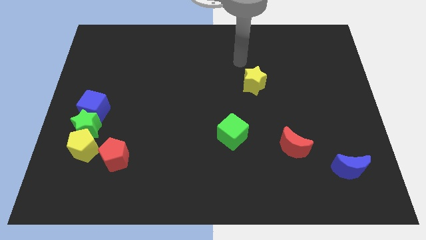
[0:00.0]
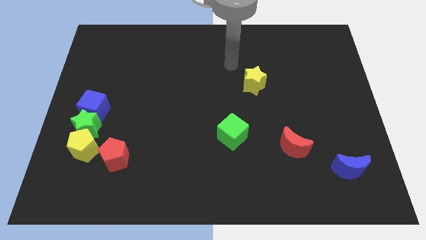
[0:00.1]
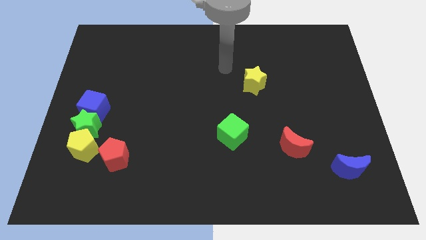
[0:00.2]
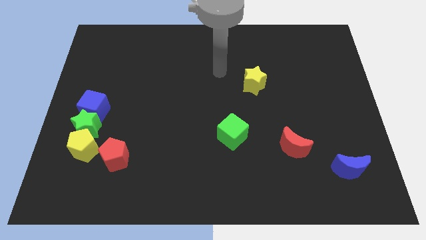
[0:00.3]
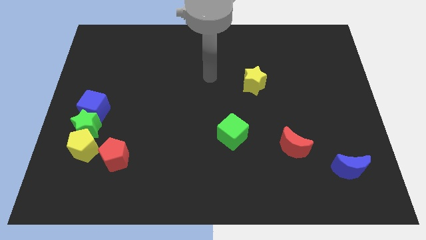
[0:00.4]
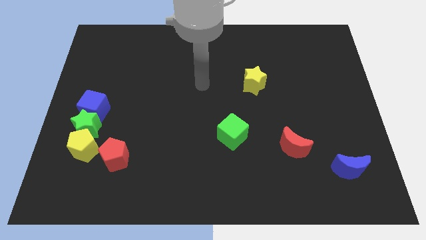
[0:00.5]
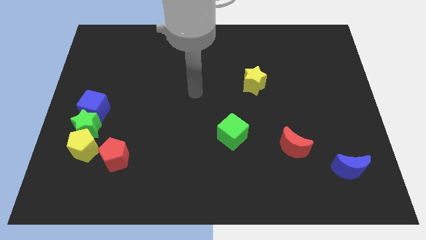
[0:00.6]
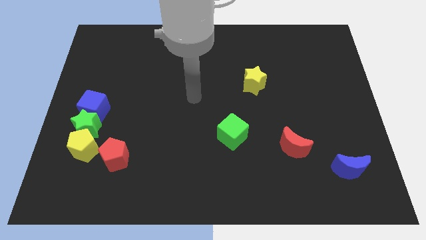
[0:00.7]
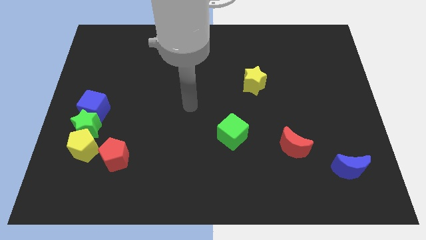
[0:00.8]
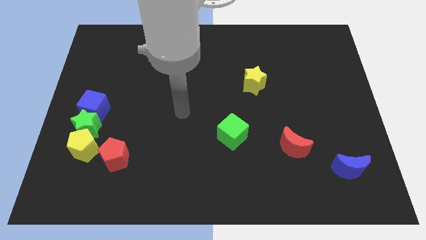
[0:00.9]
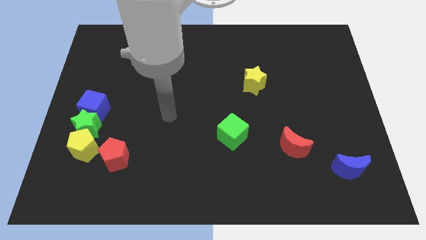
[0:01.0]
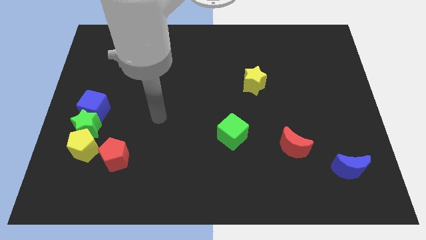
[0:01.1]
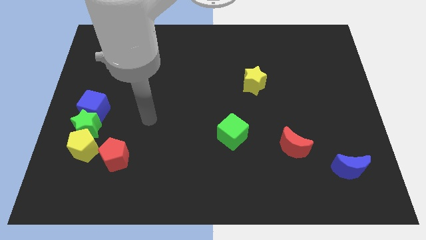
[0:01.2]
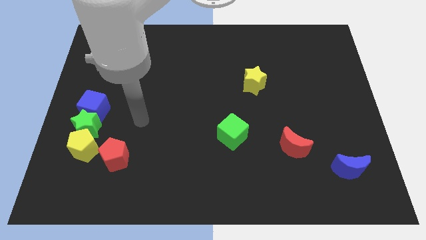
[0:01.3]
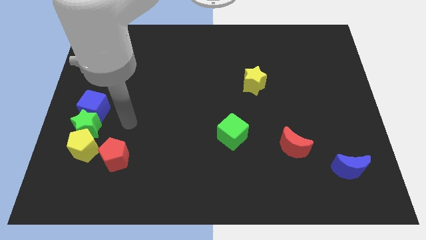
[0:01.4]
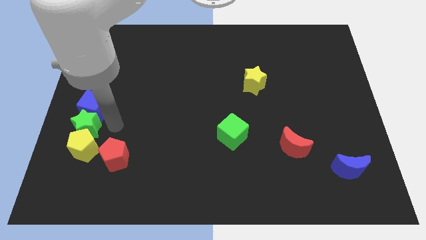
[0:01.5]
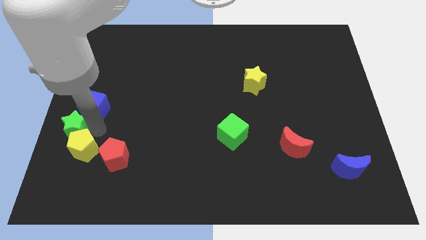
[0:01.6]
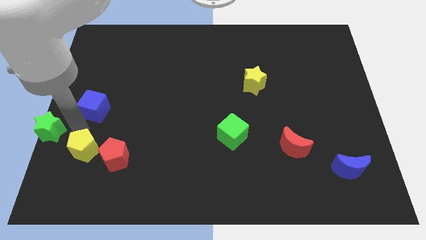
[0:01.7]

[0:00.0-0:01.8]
separate the blue cube from the green star

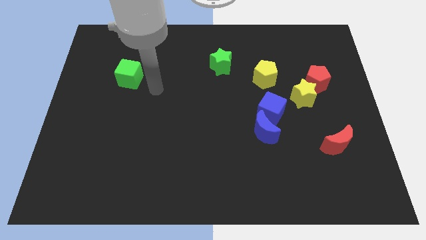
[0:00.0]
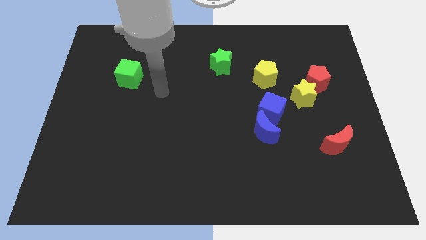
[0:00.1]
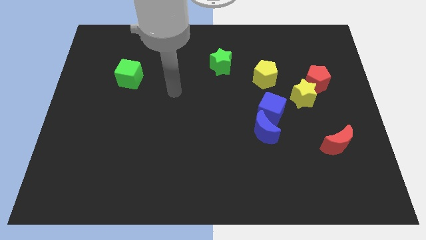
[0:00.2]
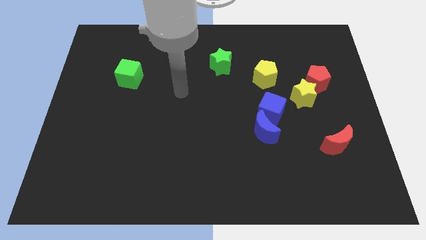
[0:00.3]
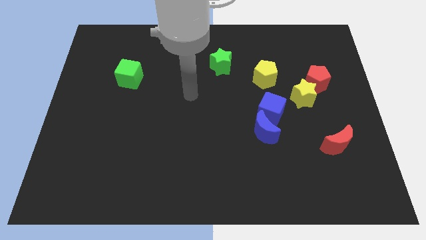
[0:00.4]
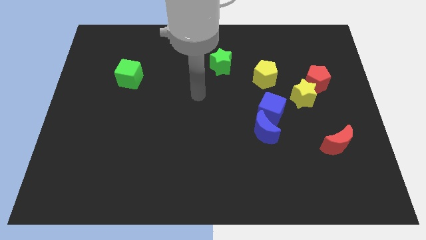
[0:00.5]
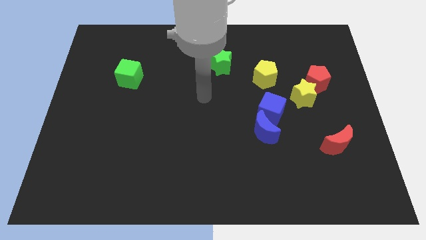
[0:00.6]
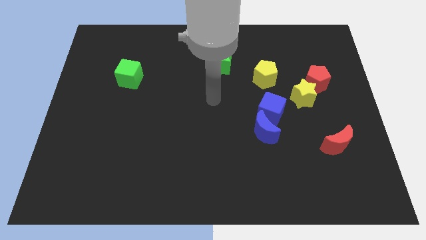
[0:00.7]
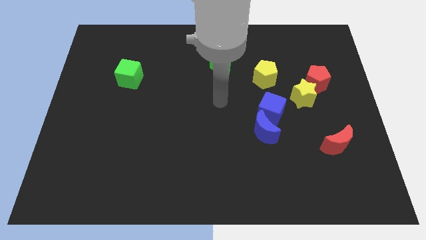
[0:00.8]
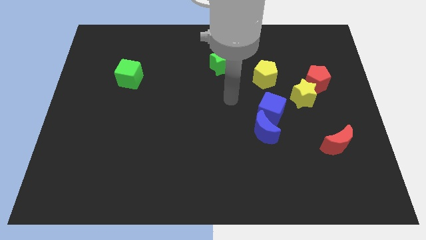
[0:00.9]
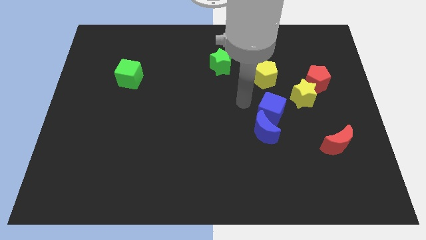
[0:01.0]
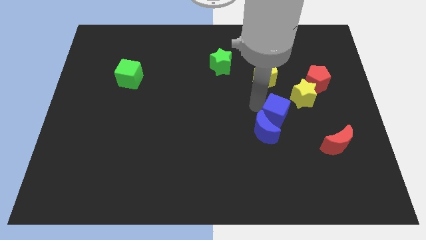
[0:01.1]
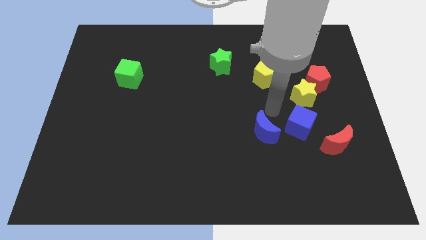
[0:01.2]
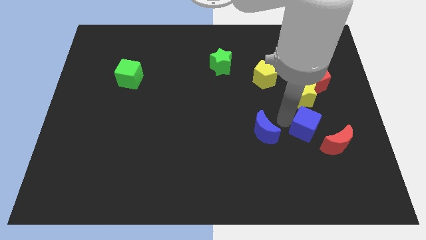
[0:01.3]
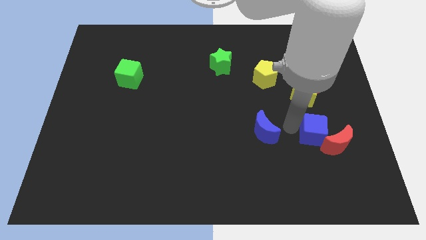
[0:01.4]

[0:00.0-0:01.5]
separate the blue moon from the blue cube

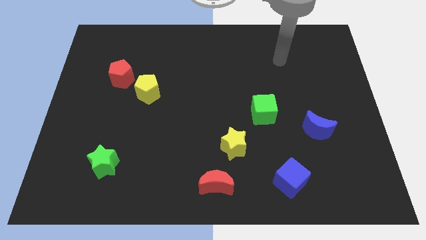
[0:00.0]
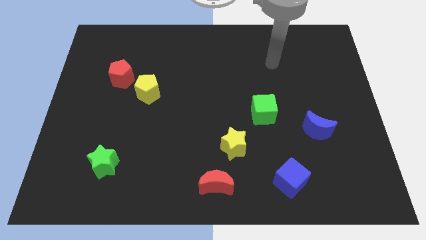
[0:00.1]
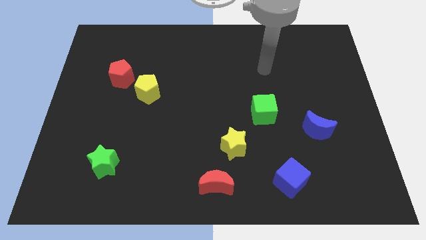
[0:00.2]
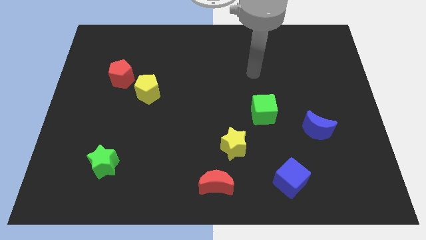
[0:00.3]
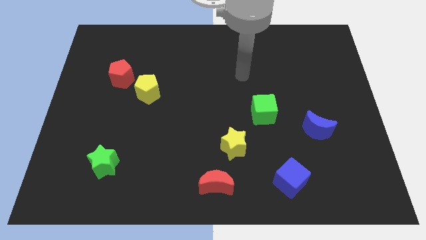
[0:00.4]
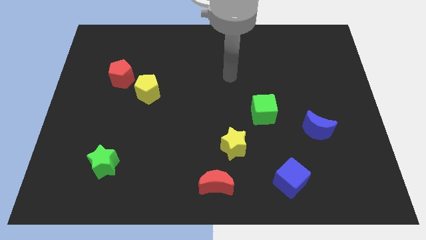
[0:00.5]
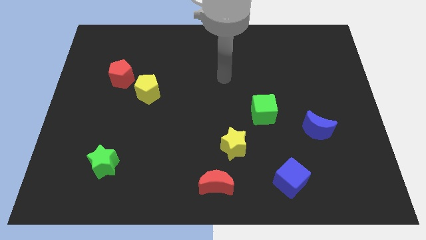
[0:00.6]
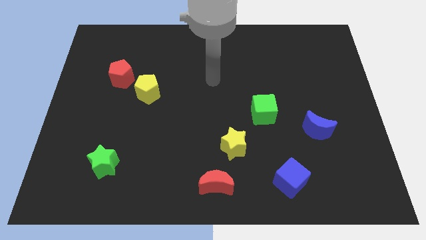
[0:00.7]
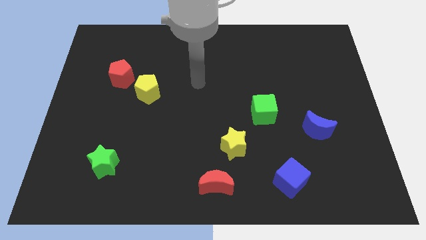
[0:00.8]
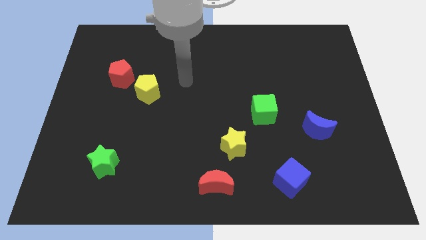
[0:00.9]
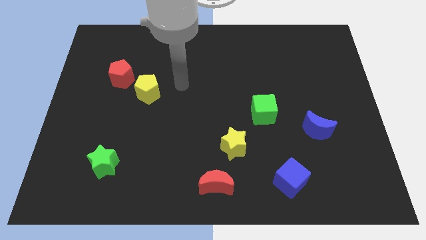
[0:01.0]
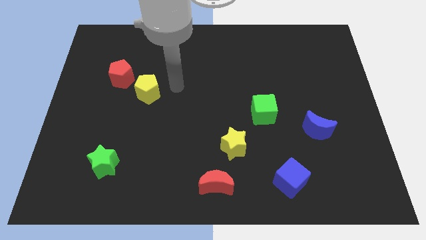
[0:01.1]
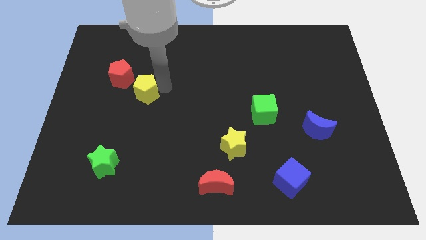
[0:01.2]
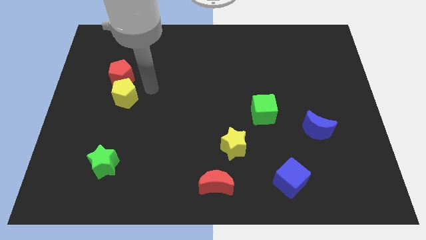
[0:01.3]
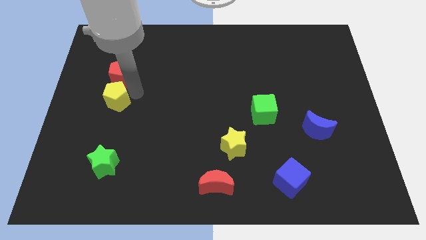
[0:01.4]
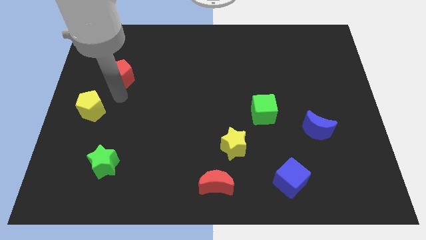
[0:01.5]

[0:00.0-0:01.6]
move the red pentagon away from the yellow pentagon

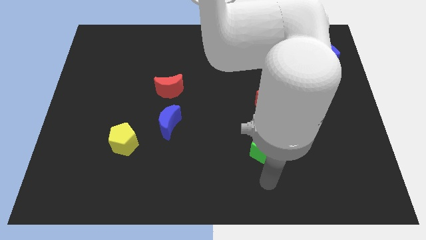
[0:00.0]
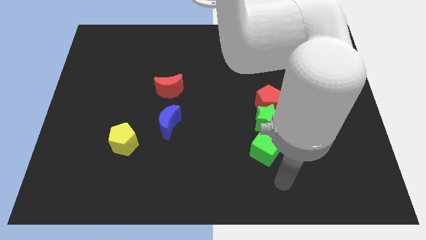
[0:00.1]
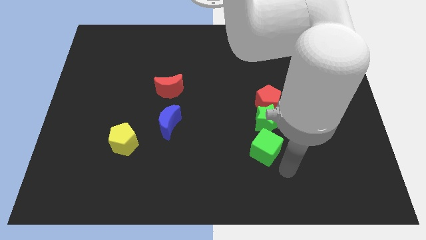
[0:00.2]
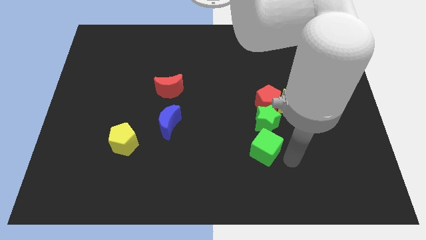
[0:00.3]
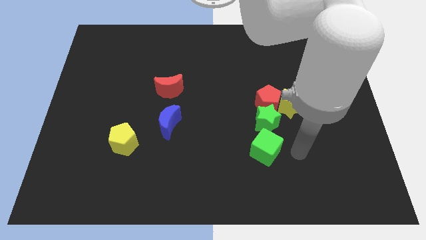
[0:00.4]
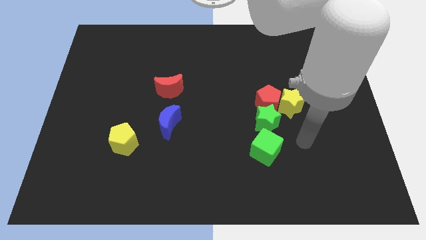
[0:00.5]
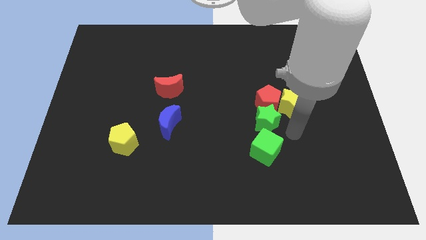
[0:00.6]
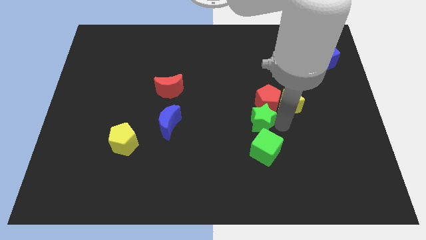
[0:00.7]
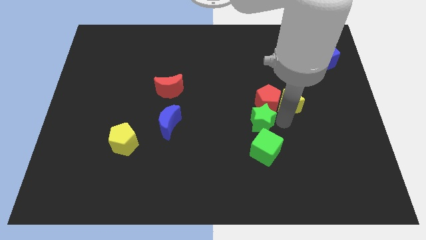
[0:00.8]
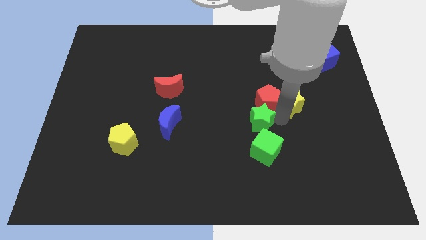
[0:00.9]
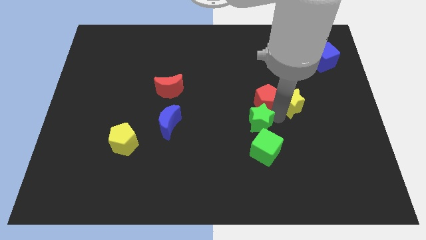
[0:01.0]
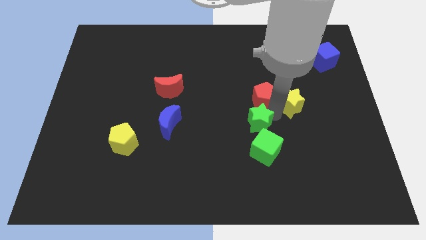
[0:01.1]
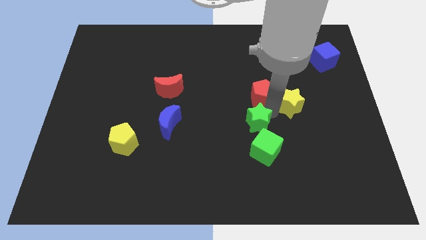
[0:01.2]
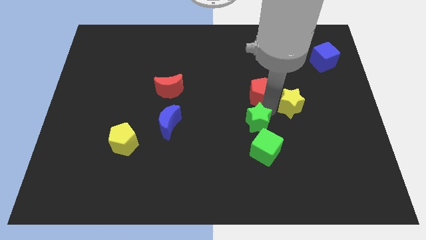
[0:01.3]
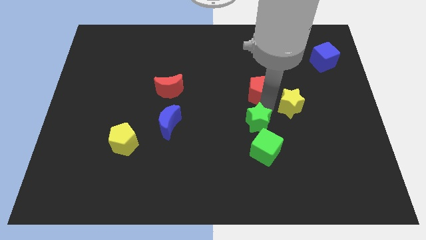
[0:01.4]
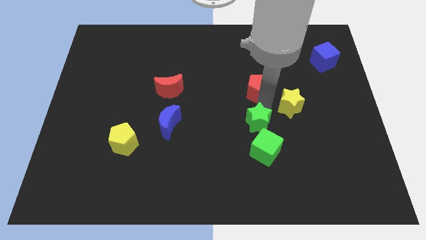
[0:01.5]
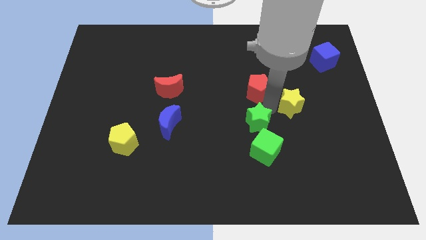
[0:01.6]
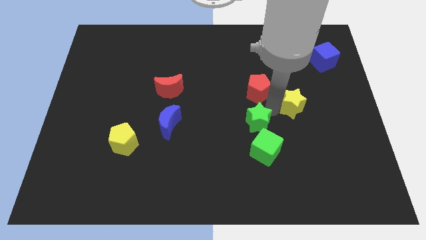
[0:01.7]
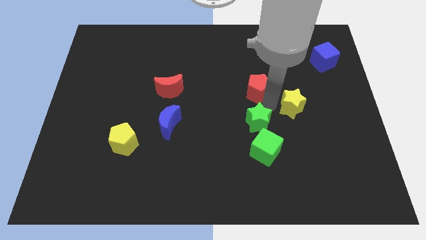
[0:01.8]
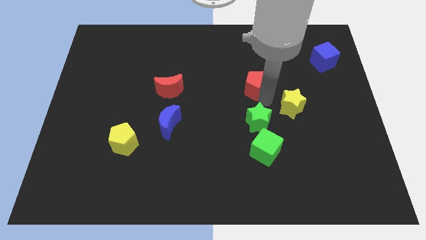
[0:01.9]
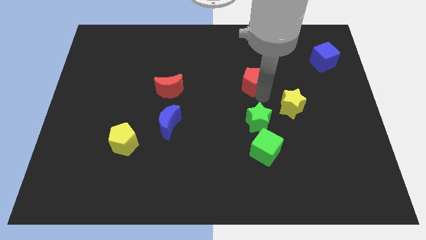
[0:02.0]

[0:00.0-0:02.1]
pull the red pentagon apart from the yellow star and green star

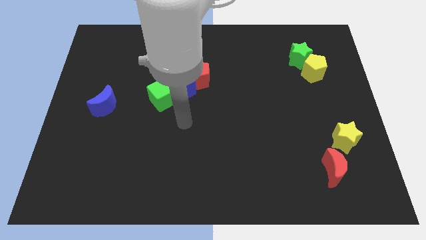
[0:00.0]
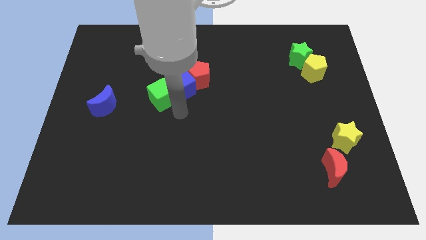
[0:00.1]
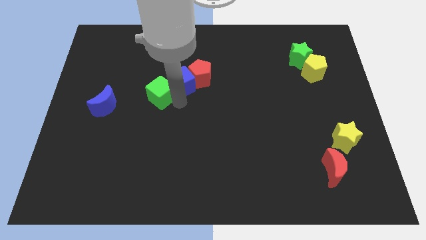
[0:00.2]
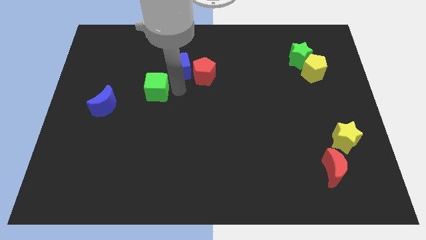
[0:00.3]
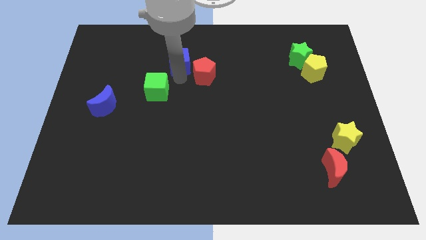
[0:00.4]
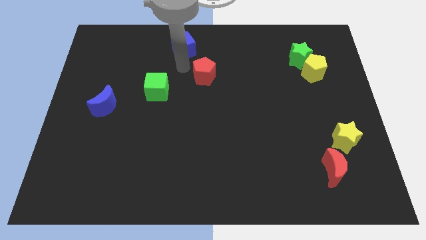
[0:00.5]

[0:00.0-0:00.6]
pull the red pentagon apart from the blue cube

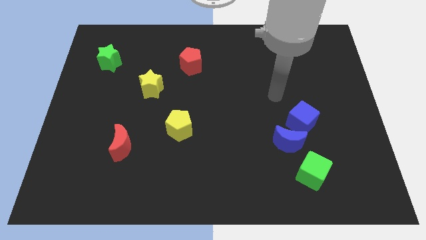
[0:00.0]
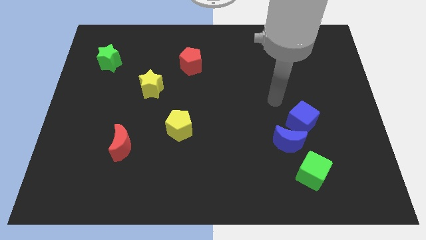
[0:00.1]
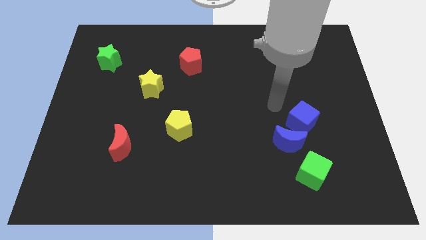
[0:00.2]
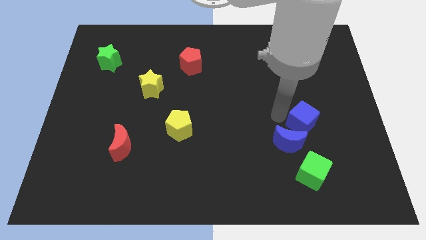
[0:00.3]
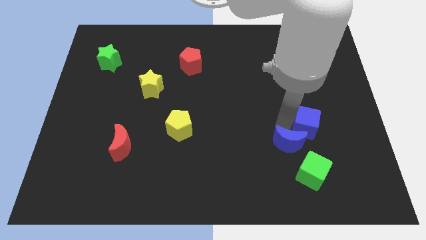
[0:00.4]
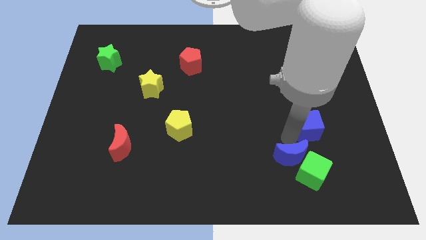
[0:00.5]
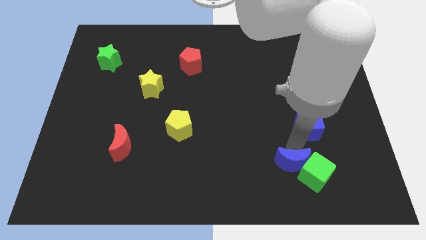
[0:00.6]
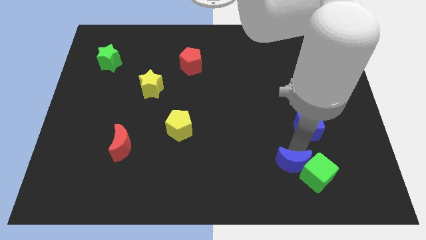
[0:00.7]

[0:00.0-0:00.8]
separate the blue cube from the blue moon

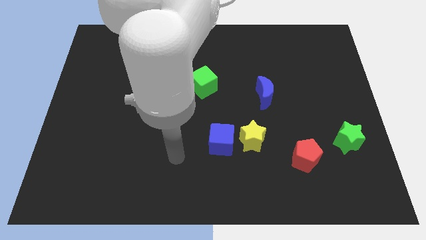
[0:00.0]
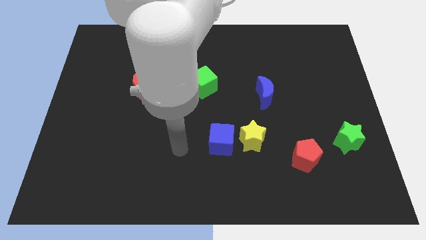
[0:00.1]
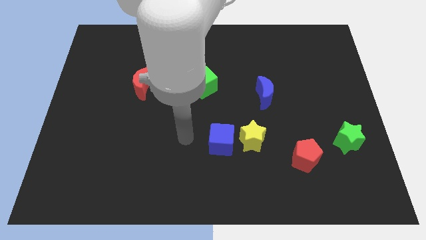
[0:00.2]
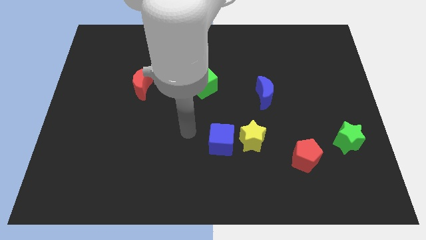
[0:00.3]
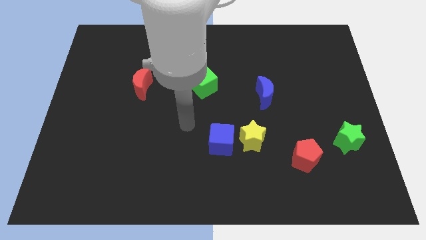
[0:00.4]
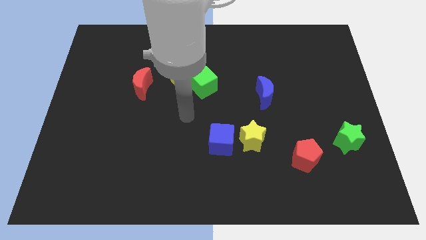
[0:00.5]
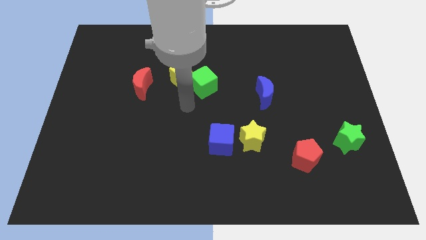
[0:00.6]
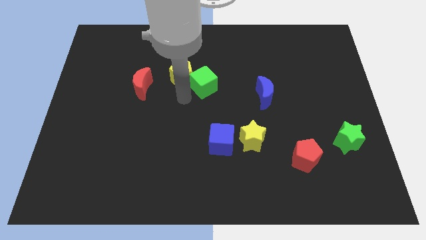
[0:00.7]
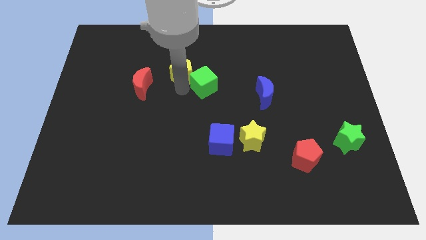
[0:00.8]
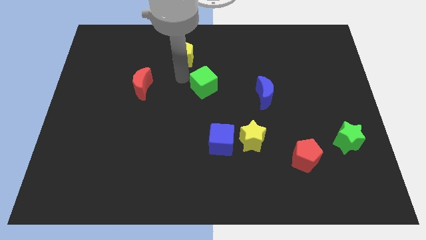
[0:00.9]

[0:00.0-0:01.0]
move the green cube away from the yellow pentagon
